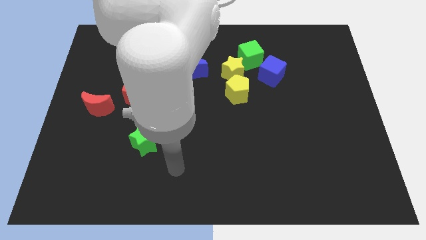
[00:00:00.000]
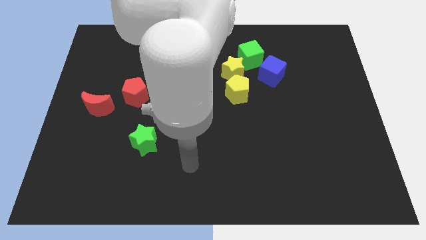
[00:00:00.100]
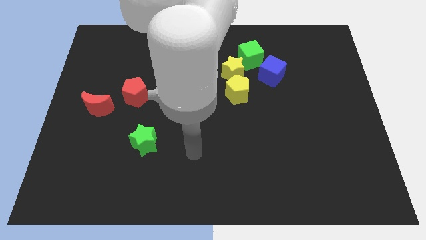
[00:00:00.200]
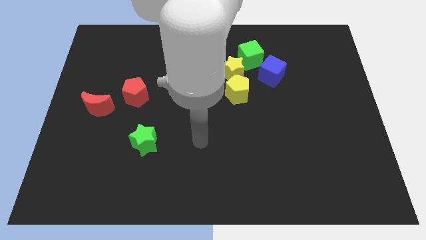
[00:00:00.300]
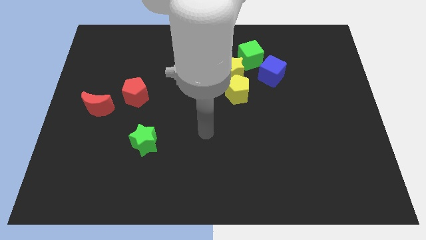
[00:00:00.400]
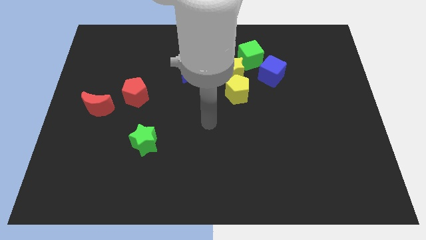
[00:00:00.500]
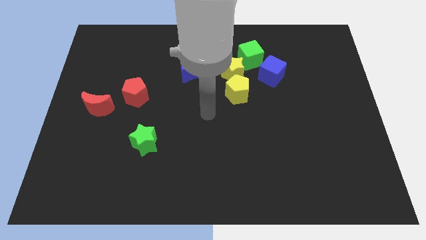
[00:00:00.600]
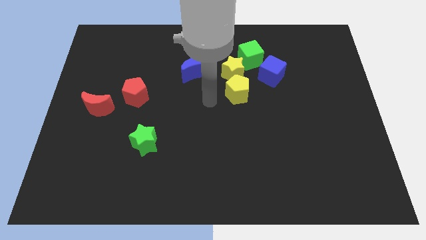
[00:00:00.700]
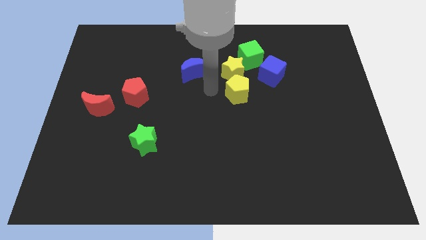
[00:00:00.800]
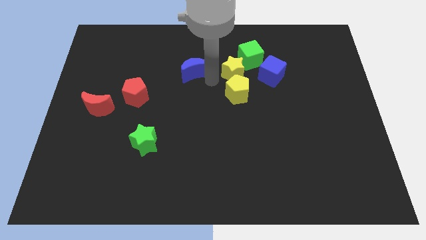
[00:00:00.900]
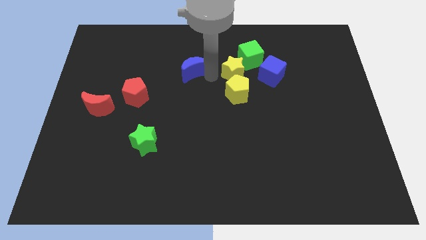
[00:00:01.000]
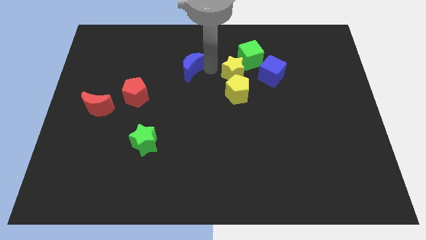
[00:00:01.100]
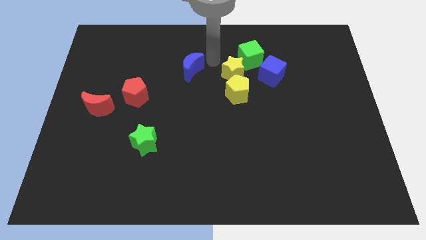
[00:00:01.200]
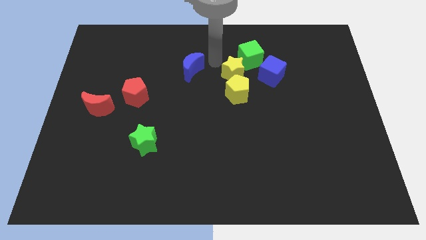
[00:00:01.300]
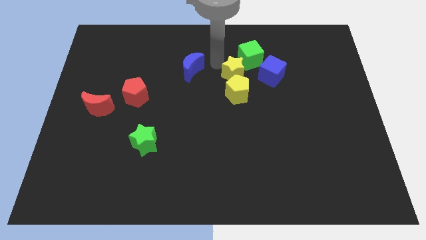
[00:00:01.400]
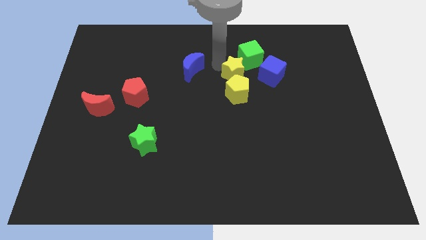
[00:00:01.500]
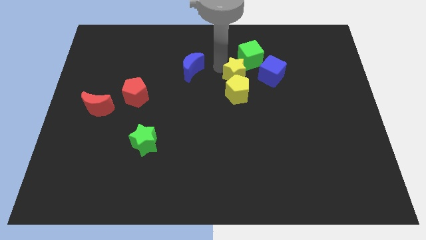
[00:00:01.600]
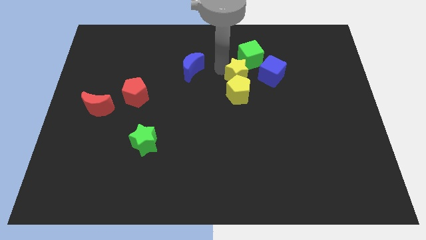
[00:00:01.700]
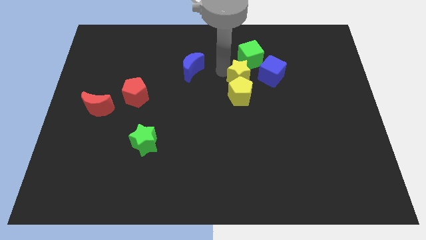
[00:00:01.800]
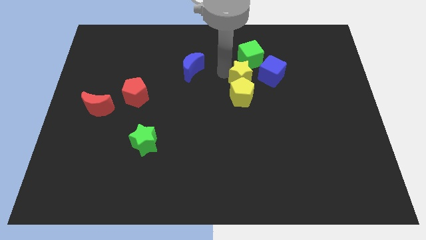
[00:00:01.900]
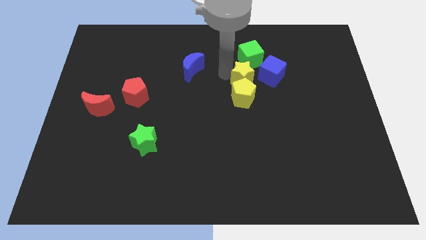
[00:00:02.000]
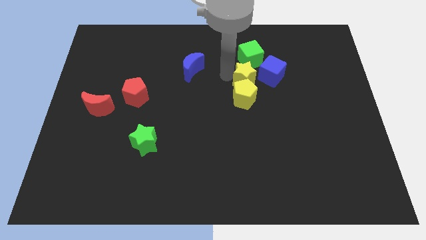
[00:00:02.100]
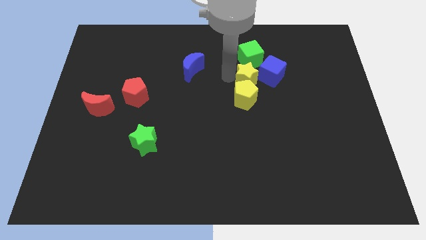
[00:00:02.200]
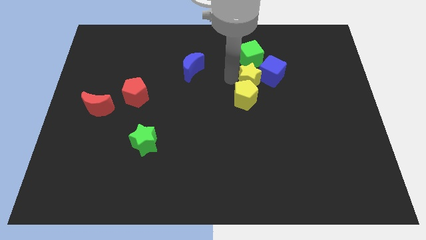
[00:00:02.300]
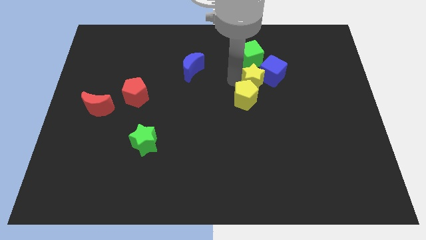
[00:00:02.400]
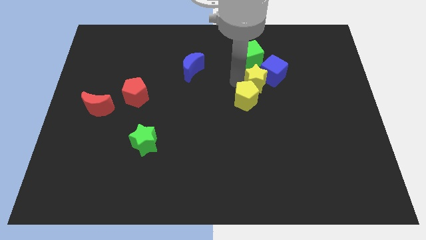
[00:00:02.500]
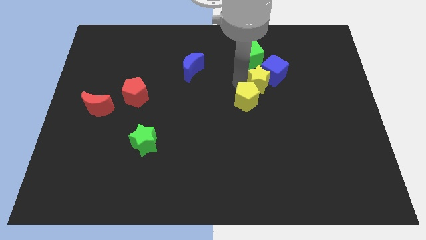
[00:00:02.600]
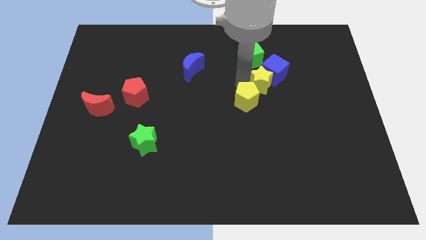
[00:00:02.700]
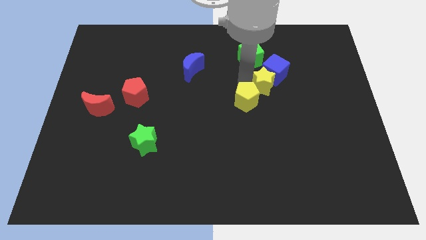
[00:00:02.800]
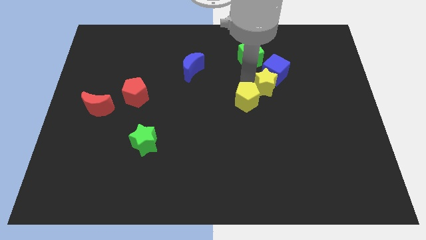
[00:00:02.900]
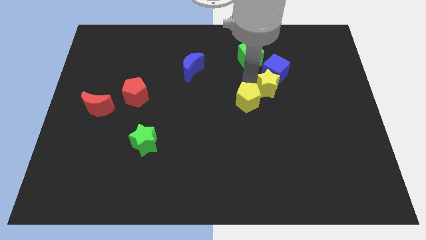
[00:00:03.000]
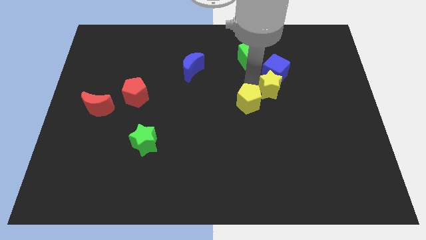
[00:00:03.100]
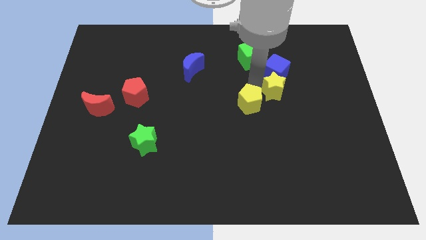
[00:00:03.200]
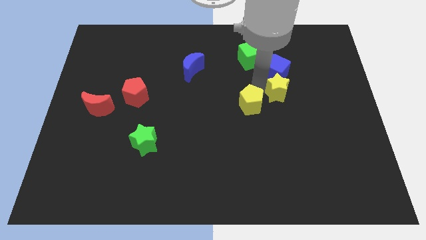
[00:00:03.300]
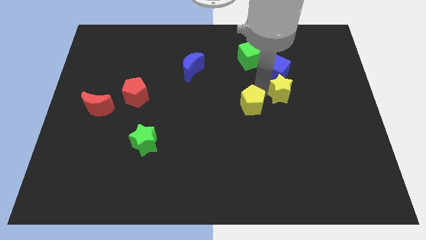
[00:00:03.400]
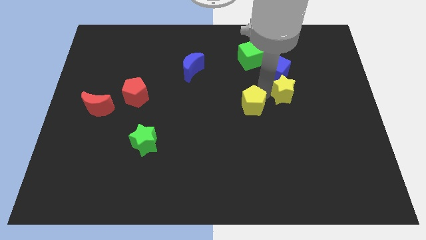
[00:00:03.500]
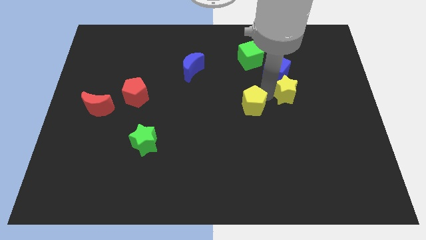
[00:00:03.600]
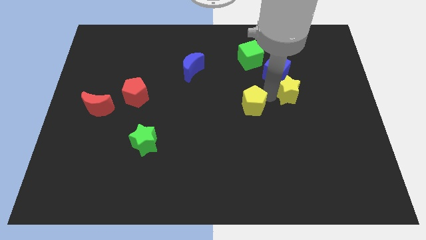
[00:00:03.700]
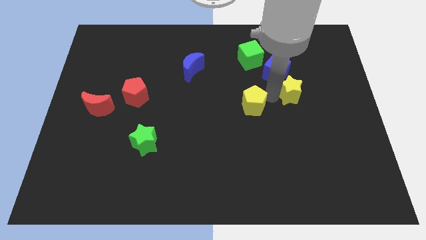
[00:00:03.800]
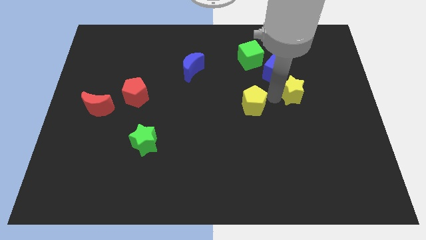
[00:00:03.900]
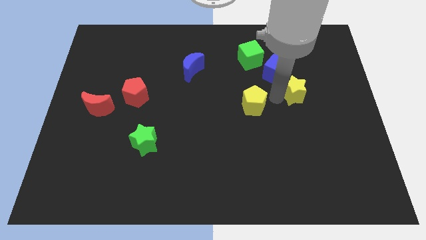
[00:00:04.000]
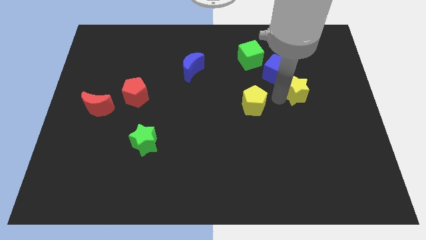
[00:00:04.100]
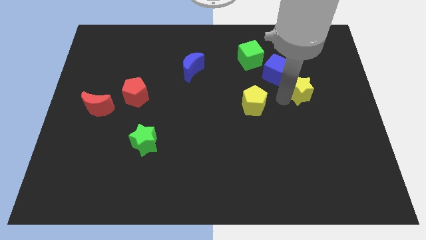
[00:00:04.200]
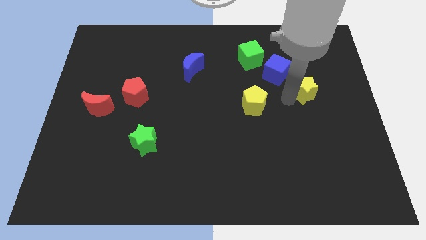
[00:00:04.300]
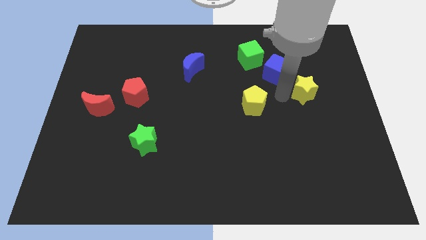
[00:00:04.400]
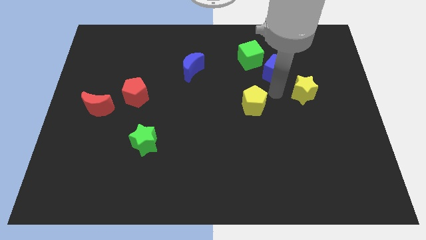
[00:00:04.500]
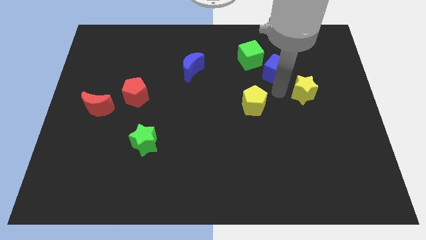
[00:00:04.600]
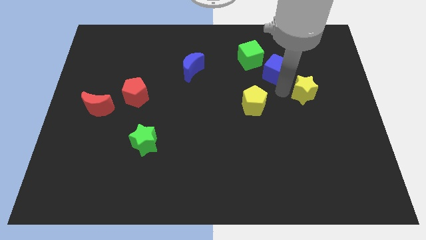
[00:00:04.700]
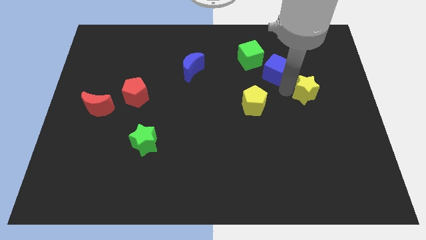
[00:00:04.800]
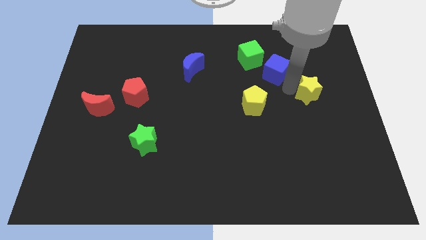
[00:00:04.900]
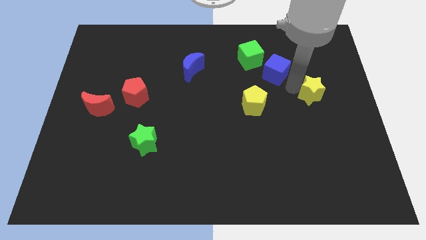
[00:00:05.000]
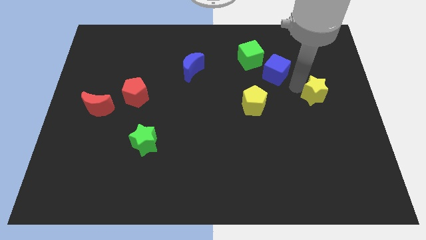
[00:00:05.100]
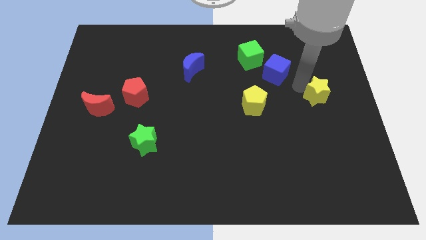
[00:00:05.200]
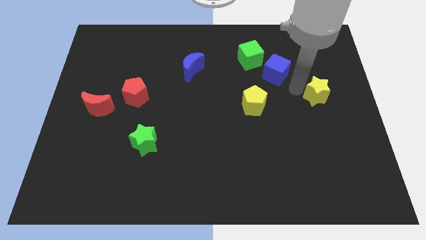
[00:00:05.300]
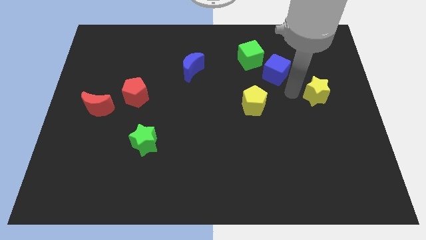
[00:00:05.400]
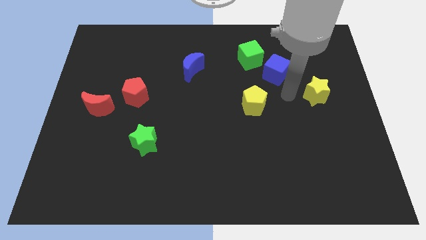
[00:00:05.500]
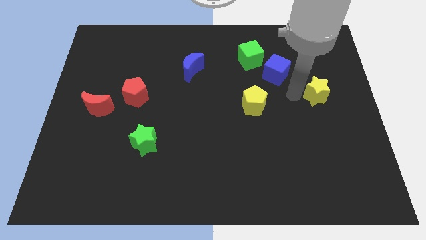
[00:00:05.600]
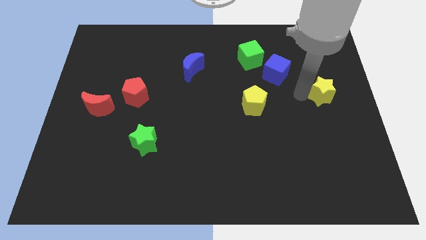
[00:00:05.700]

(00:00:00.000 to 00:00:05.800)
slide the yellow star to the right side

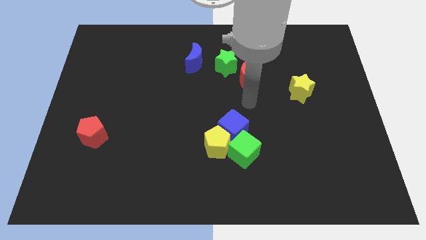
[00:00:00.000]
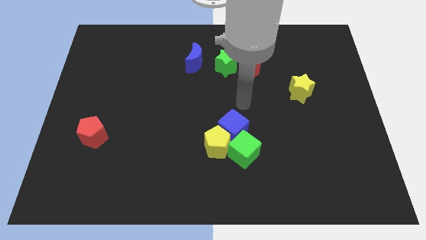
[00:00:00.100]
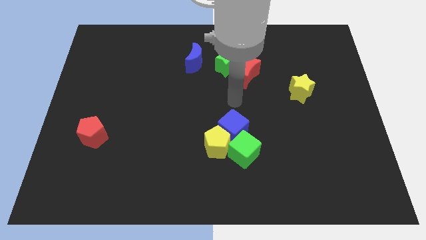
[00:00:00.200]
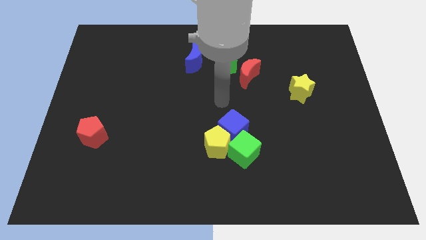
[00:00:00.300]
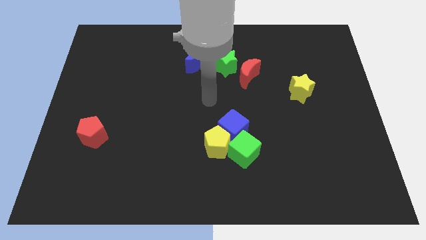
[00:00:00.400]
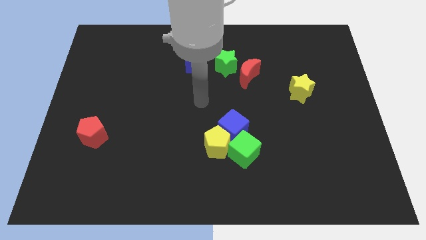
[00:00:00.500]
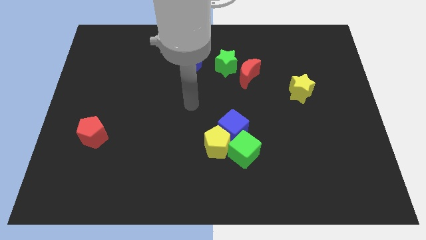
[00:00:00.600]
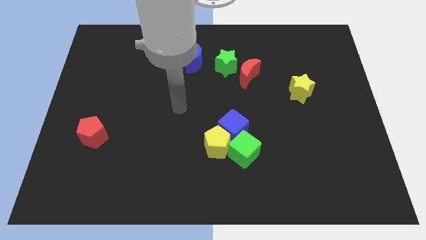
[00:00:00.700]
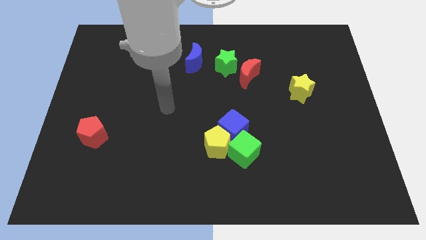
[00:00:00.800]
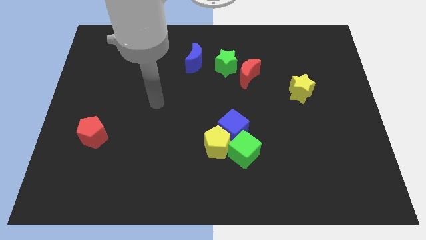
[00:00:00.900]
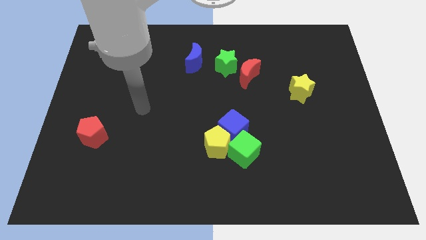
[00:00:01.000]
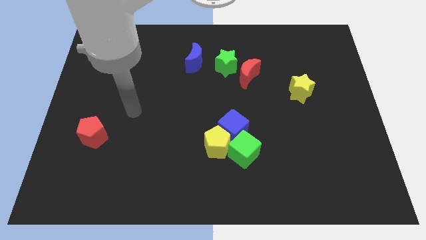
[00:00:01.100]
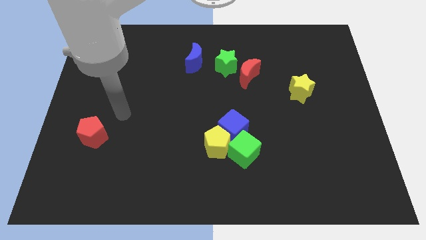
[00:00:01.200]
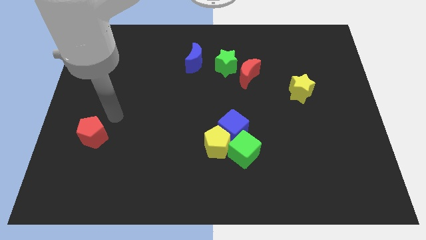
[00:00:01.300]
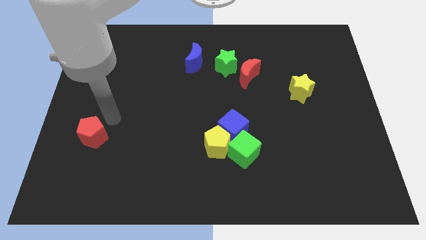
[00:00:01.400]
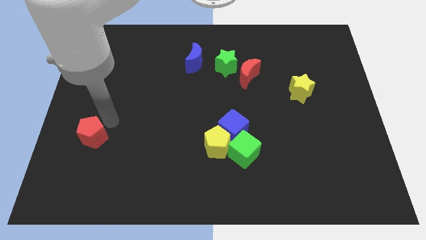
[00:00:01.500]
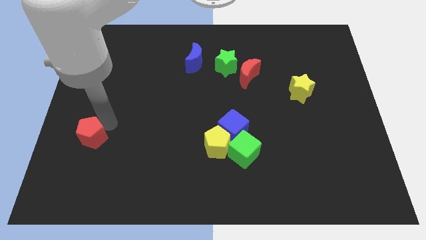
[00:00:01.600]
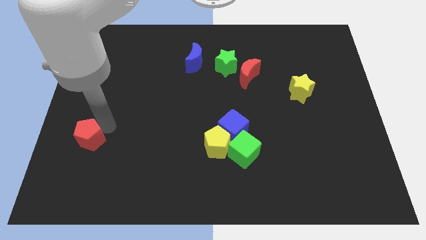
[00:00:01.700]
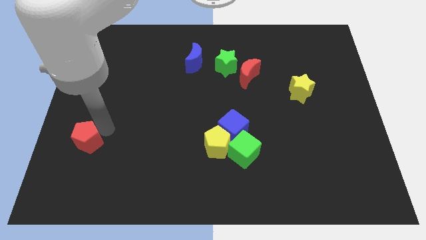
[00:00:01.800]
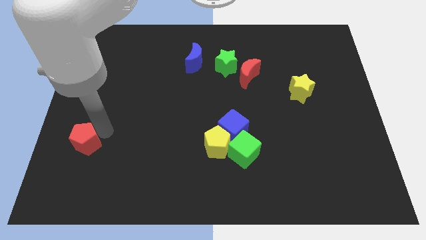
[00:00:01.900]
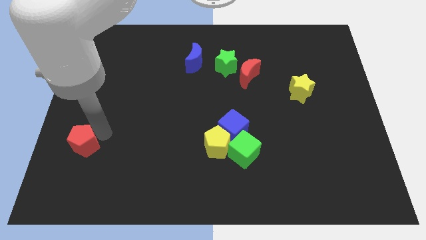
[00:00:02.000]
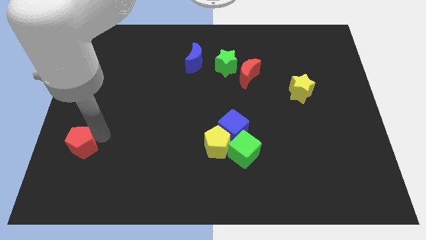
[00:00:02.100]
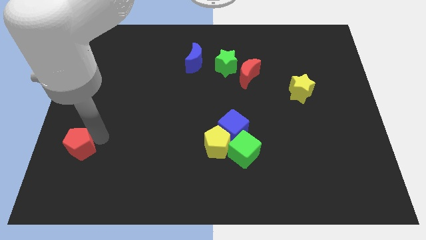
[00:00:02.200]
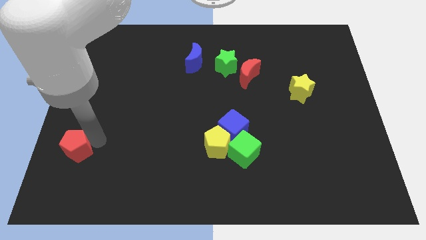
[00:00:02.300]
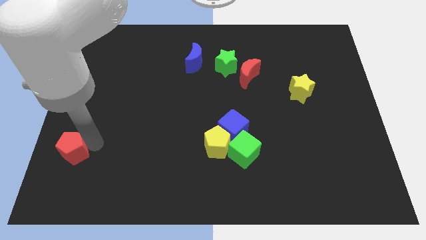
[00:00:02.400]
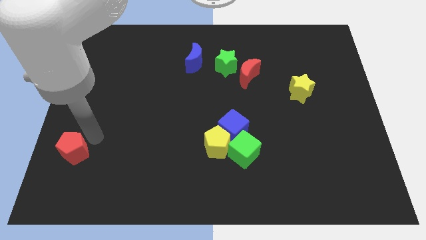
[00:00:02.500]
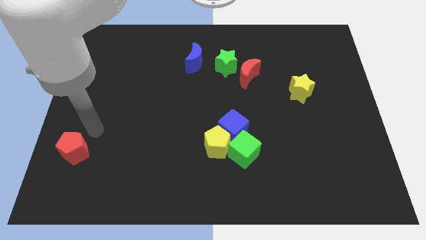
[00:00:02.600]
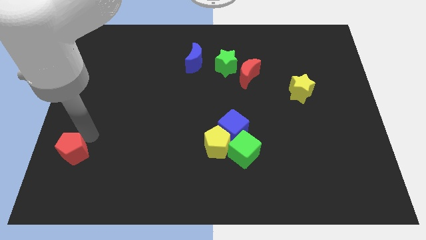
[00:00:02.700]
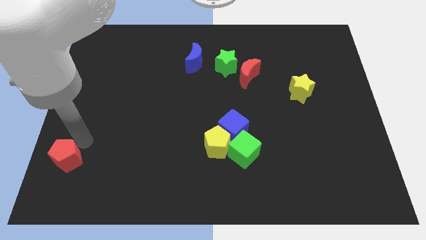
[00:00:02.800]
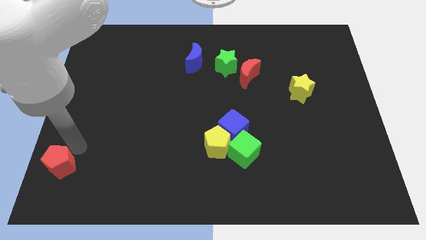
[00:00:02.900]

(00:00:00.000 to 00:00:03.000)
move the red pentagon to the bottom left of the board
